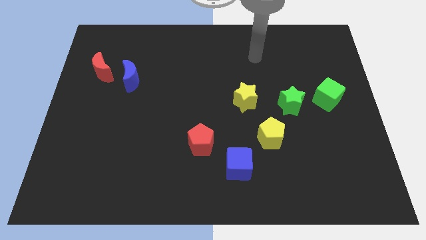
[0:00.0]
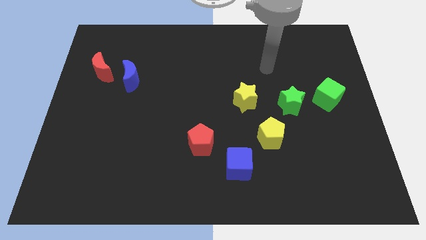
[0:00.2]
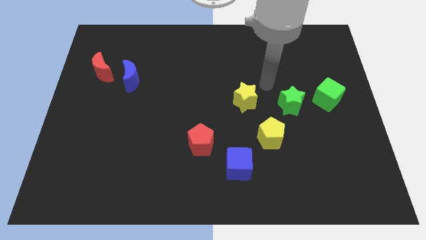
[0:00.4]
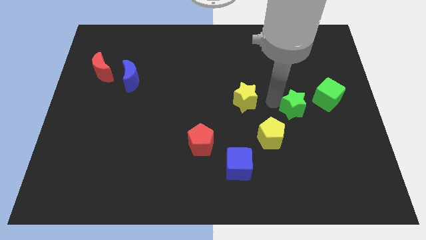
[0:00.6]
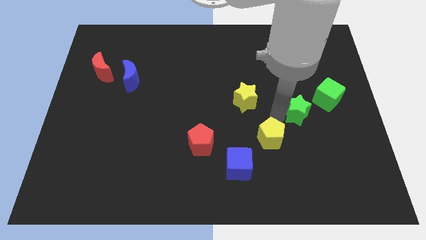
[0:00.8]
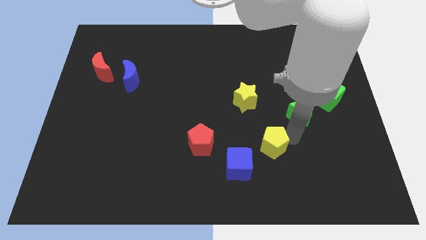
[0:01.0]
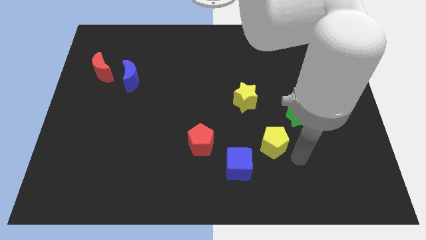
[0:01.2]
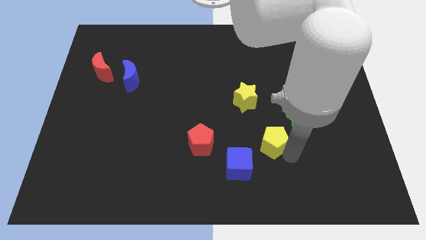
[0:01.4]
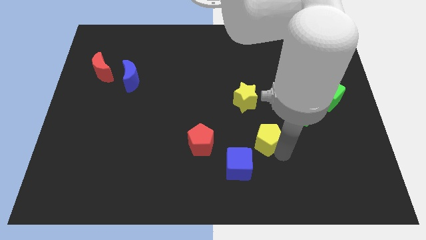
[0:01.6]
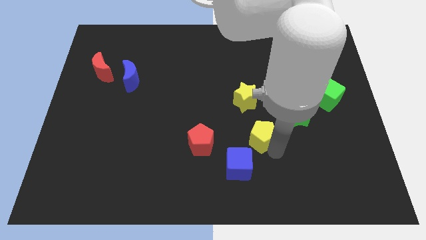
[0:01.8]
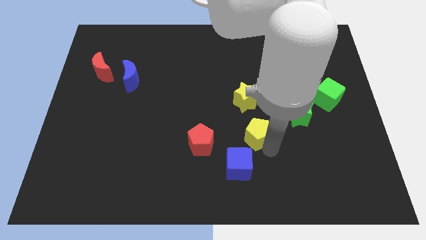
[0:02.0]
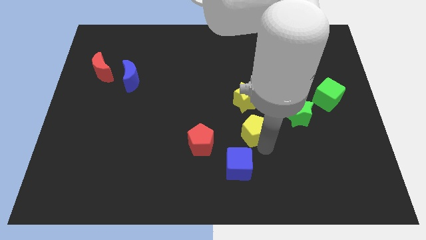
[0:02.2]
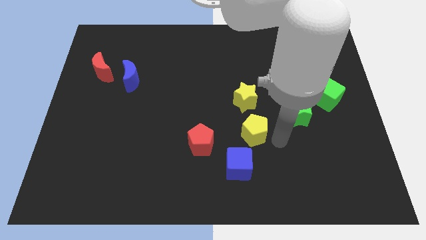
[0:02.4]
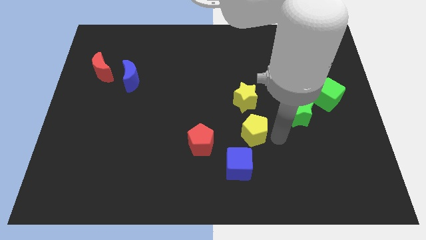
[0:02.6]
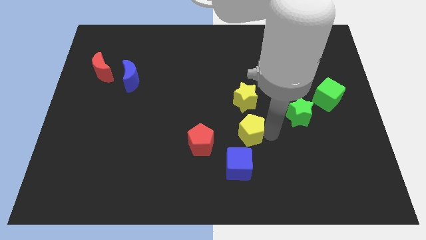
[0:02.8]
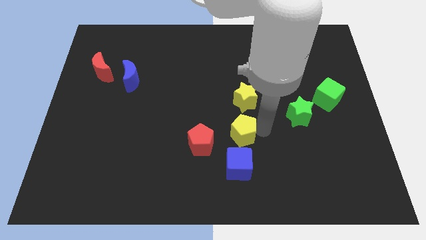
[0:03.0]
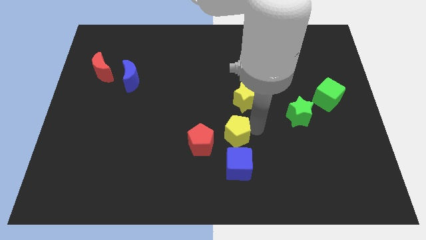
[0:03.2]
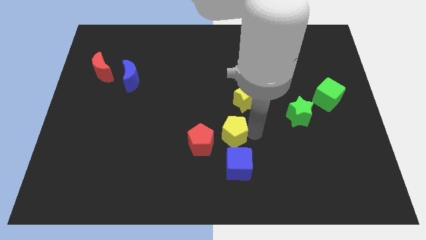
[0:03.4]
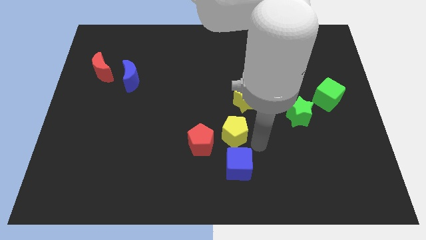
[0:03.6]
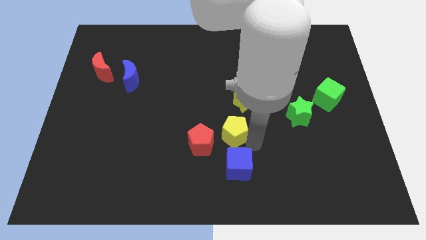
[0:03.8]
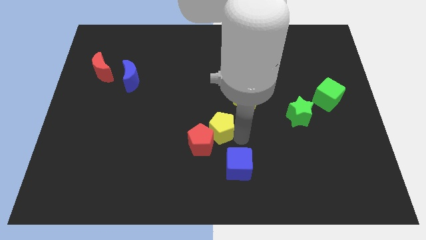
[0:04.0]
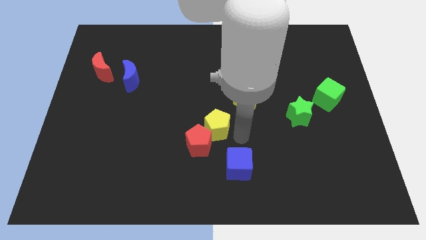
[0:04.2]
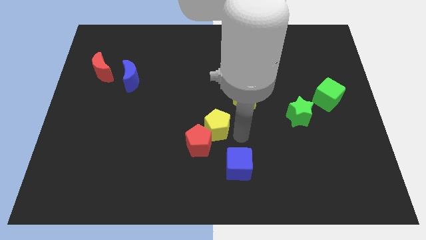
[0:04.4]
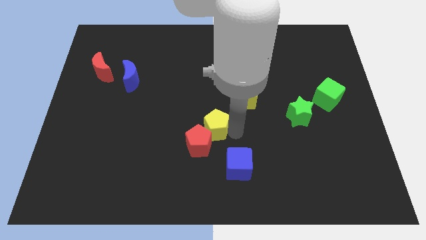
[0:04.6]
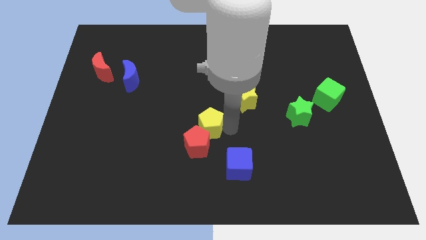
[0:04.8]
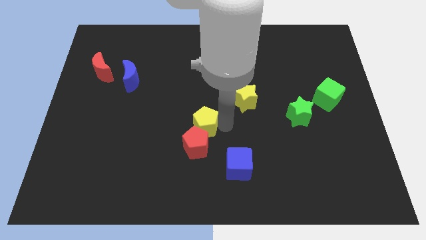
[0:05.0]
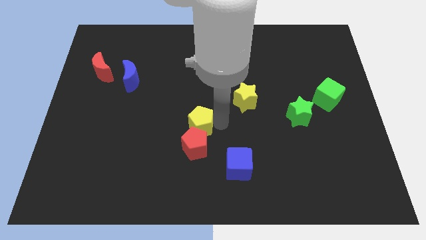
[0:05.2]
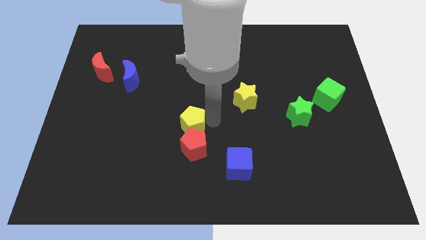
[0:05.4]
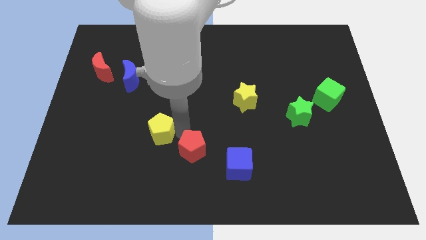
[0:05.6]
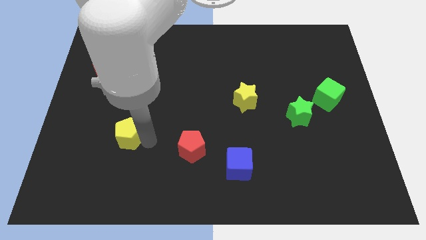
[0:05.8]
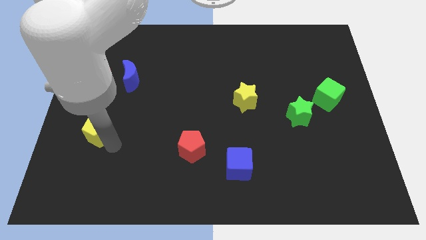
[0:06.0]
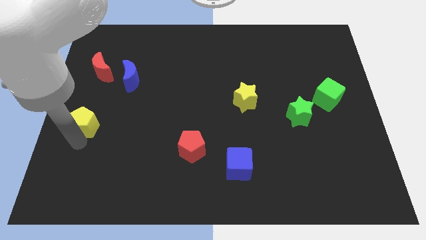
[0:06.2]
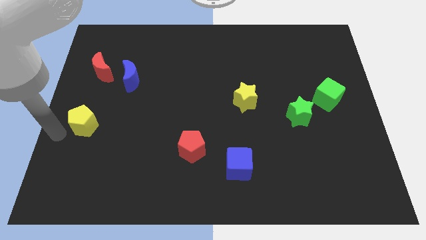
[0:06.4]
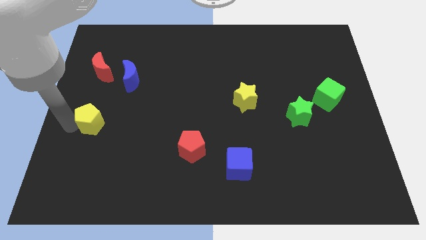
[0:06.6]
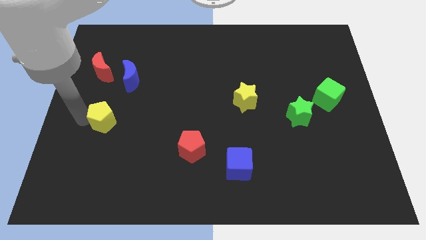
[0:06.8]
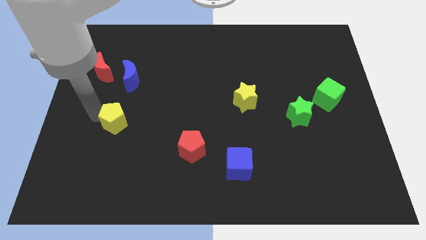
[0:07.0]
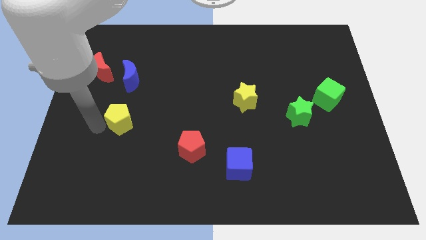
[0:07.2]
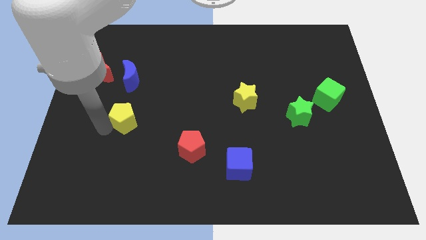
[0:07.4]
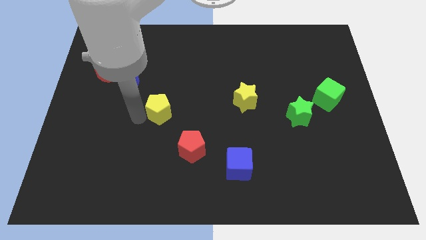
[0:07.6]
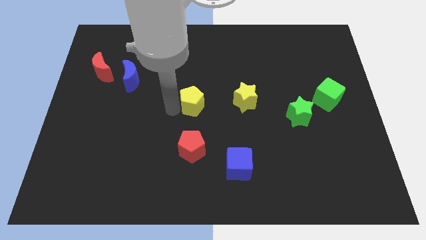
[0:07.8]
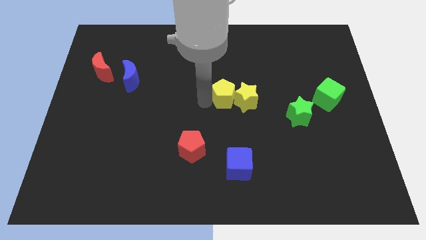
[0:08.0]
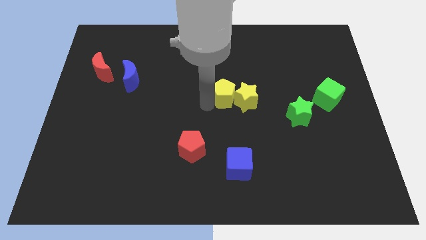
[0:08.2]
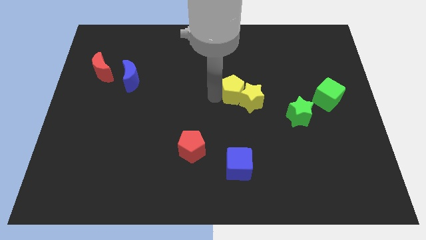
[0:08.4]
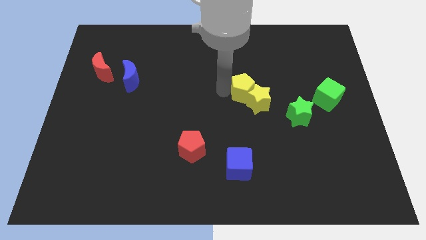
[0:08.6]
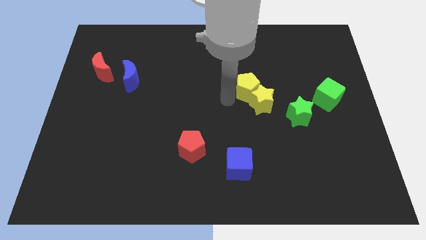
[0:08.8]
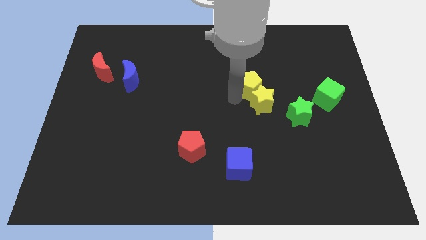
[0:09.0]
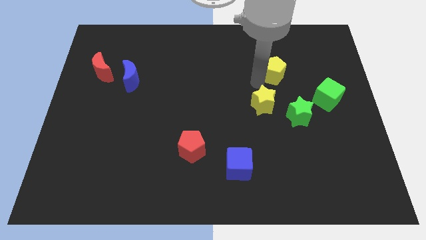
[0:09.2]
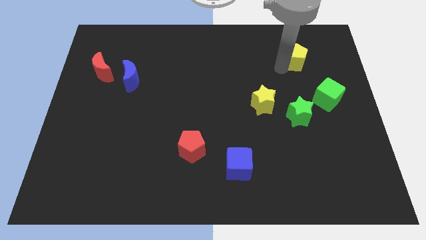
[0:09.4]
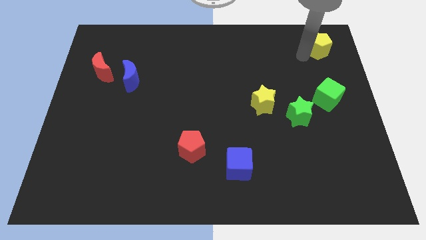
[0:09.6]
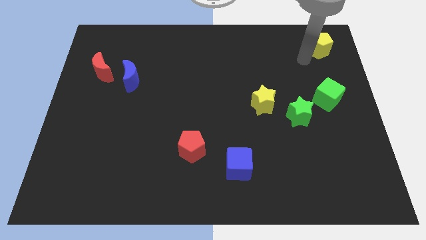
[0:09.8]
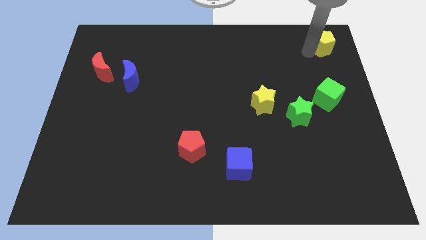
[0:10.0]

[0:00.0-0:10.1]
slide the yellow pentagon to the top right of the board
